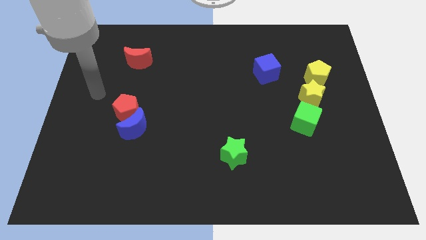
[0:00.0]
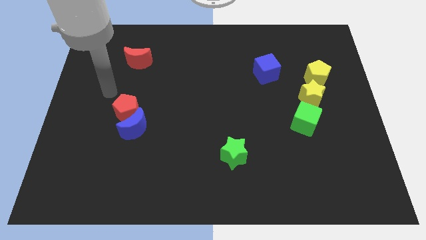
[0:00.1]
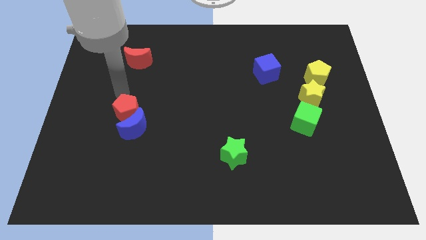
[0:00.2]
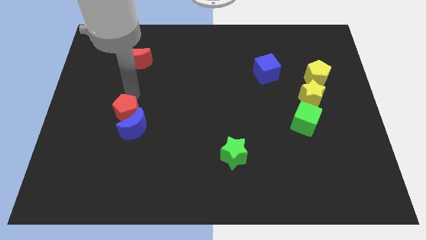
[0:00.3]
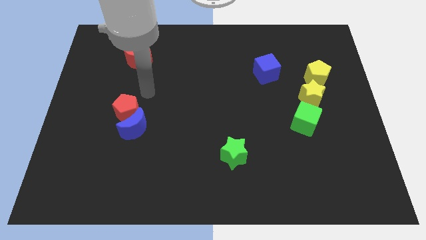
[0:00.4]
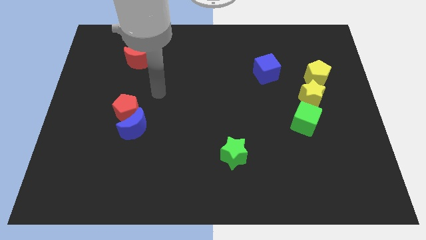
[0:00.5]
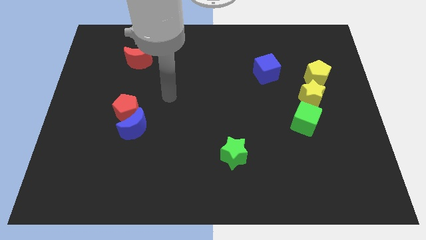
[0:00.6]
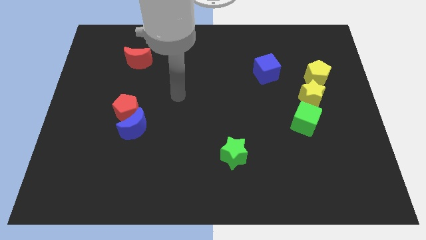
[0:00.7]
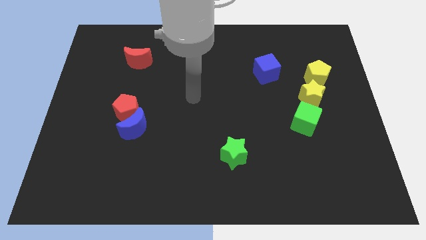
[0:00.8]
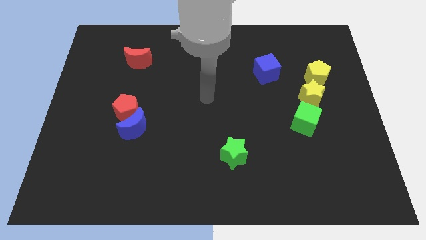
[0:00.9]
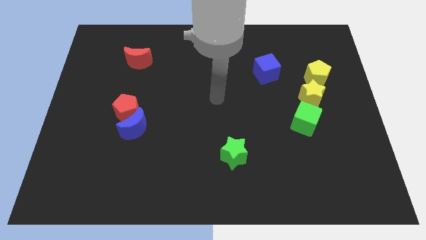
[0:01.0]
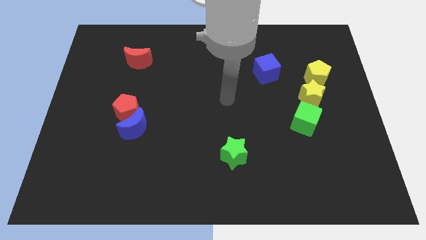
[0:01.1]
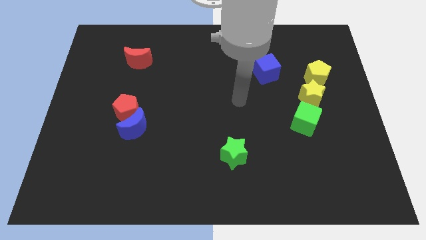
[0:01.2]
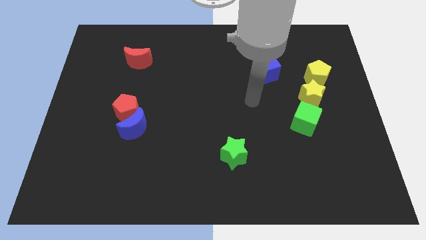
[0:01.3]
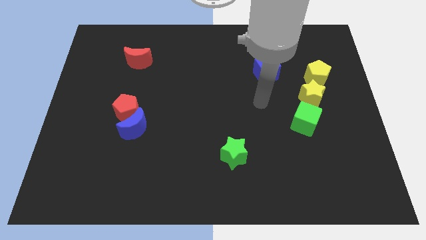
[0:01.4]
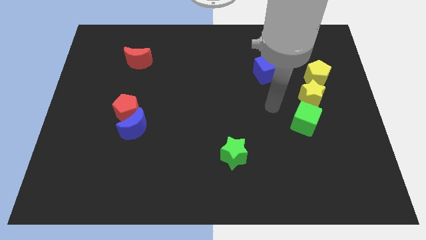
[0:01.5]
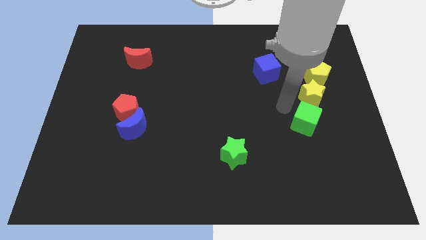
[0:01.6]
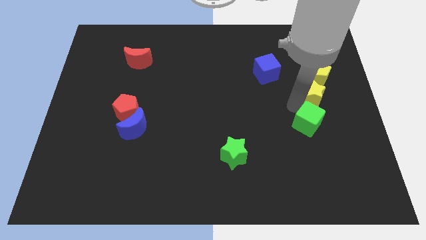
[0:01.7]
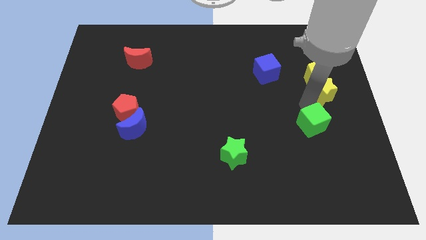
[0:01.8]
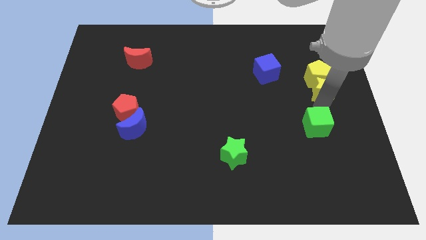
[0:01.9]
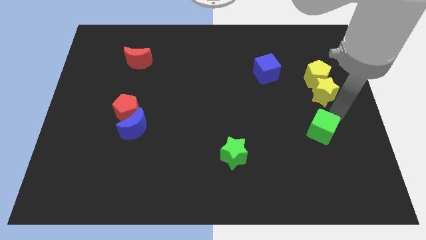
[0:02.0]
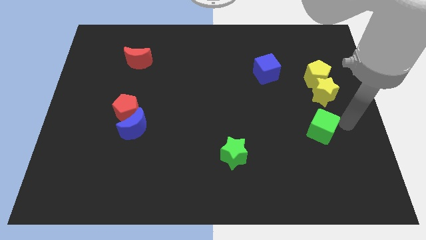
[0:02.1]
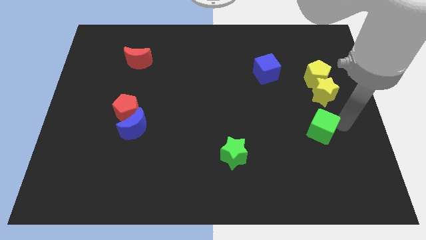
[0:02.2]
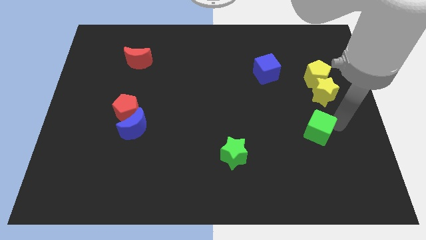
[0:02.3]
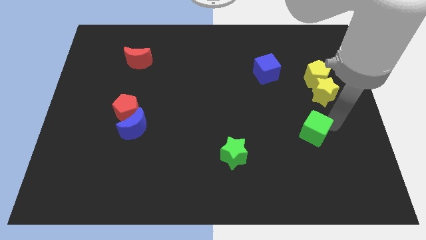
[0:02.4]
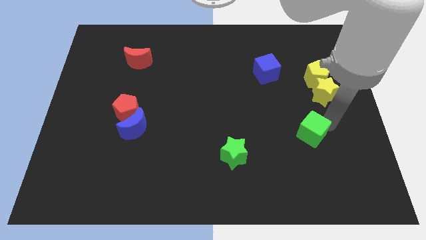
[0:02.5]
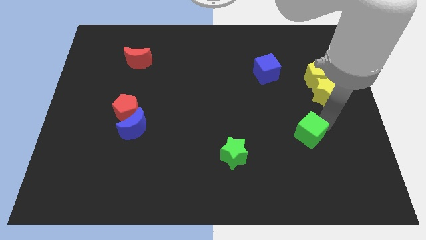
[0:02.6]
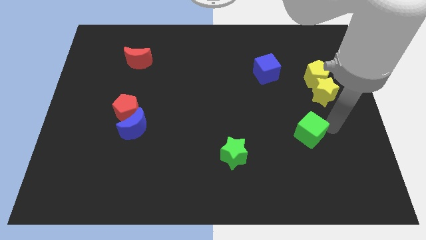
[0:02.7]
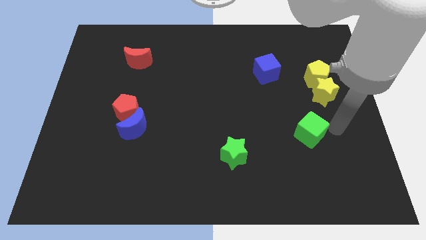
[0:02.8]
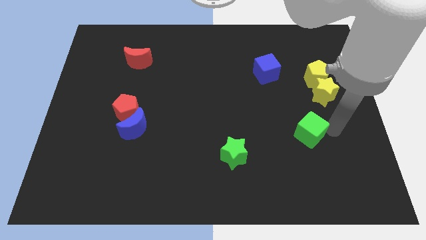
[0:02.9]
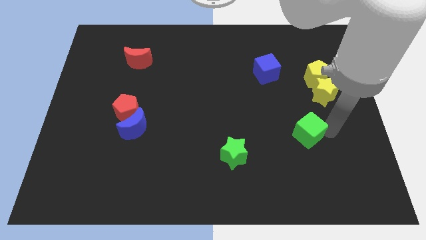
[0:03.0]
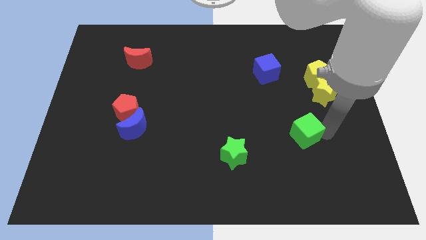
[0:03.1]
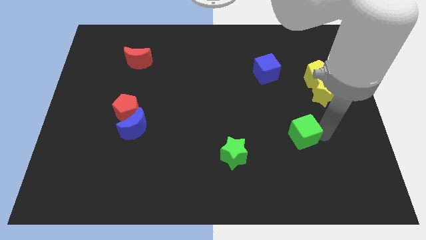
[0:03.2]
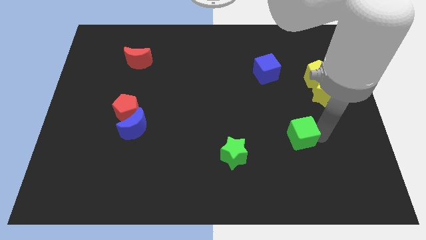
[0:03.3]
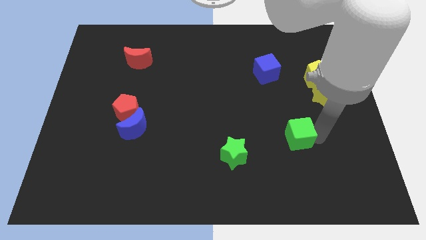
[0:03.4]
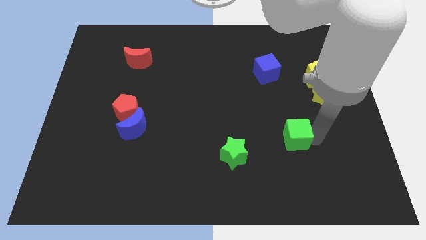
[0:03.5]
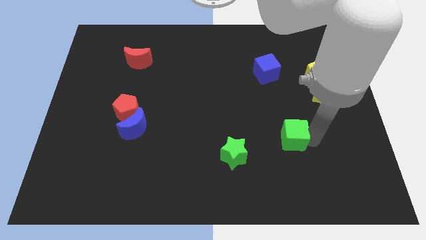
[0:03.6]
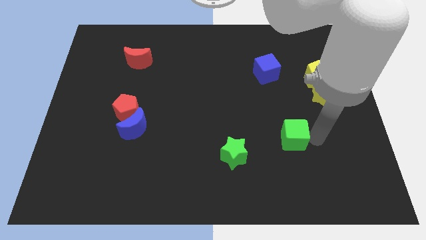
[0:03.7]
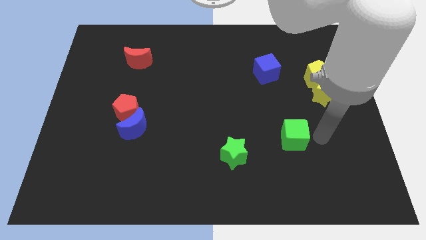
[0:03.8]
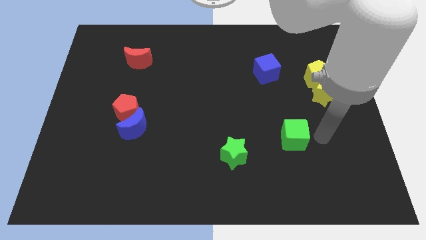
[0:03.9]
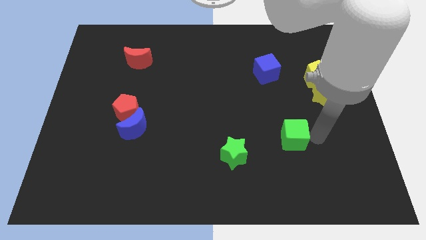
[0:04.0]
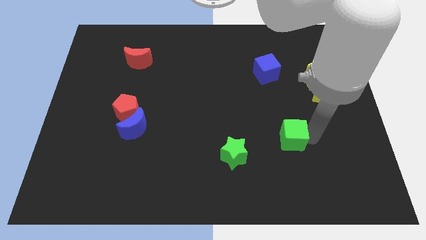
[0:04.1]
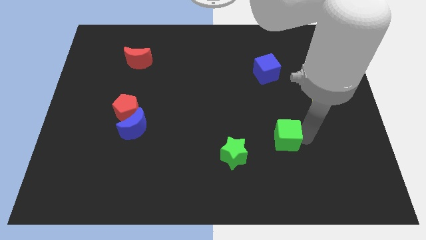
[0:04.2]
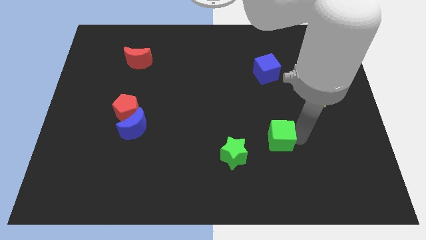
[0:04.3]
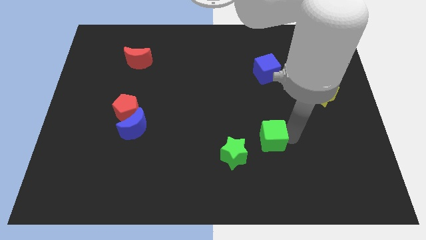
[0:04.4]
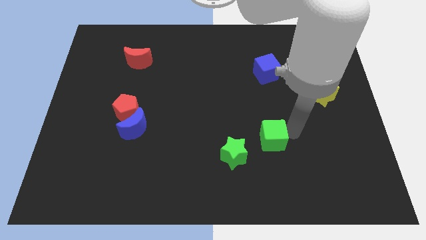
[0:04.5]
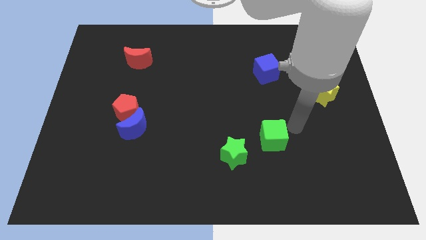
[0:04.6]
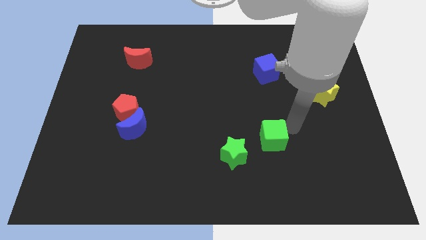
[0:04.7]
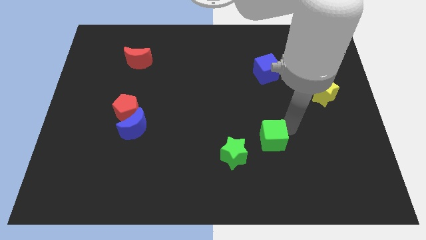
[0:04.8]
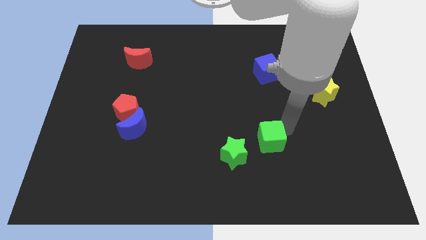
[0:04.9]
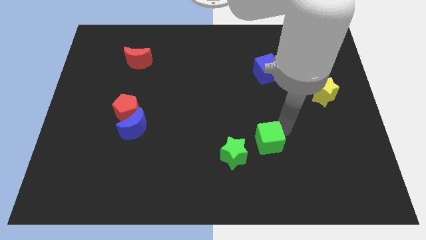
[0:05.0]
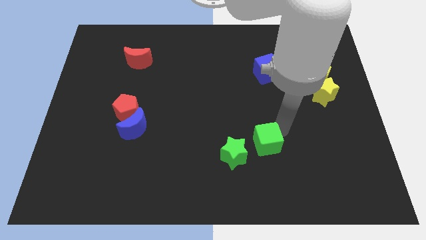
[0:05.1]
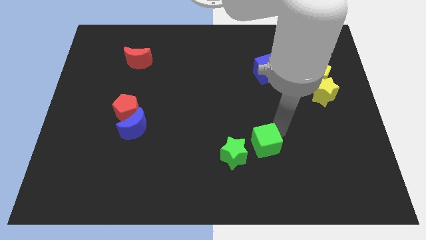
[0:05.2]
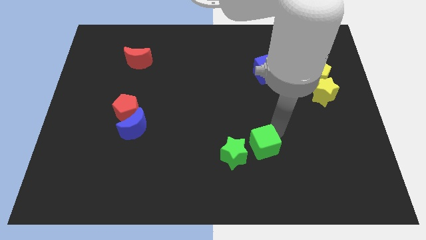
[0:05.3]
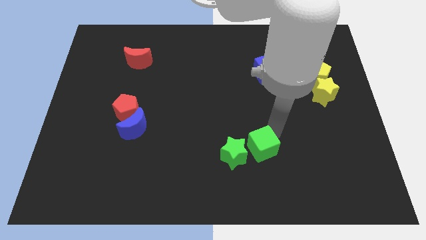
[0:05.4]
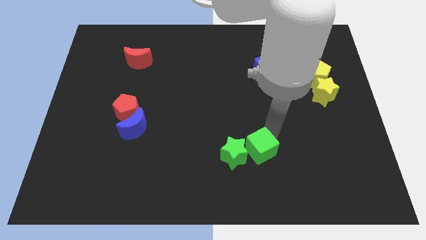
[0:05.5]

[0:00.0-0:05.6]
push the green cube close to the green star
